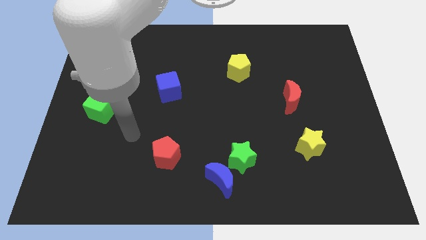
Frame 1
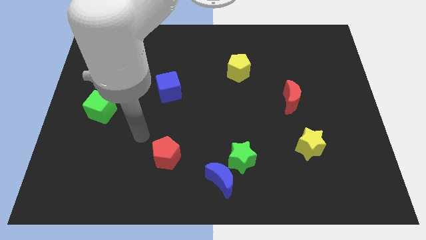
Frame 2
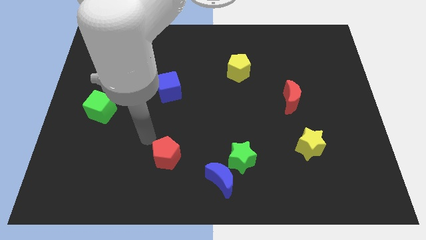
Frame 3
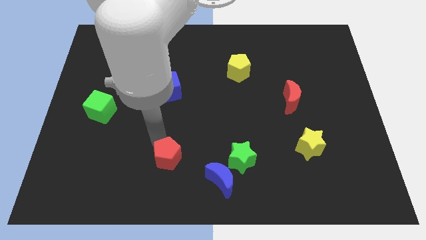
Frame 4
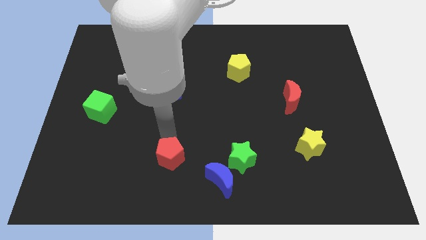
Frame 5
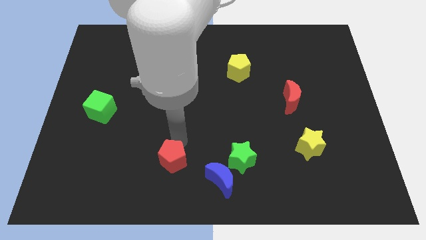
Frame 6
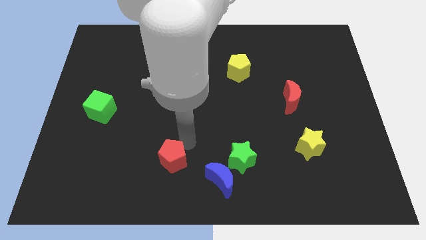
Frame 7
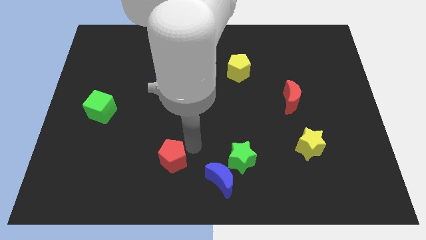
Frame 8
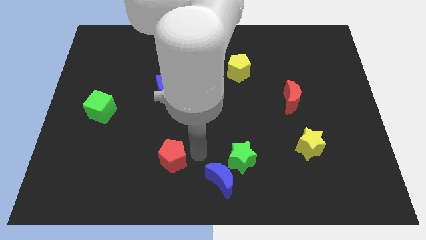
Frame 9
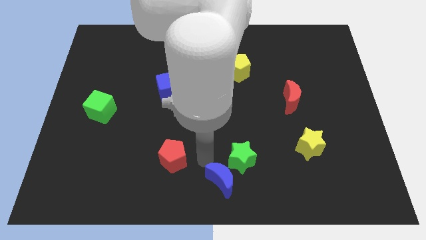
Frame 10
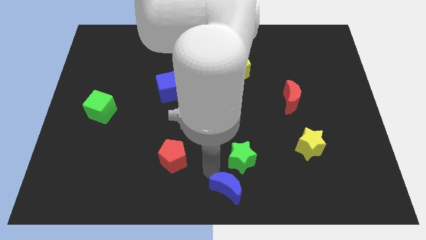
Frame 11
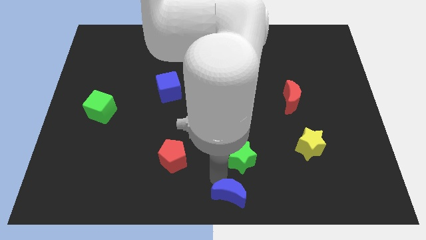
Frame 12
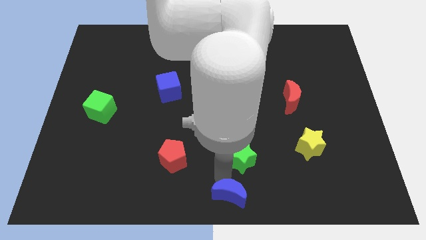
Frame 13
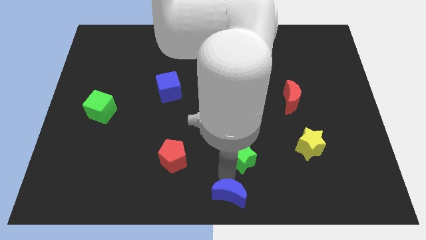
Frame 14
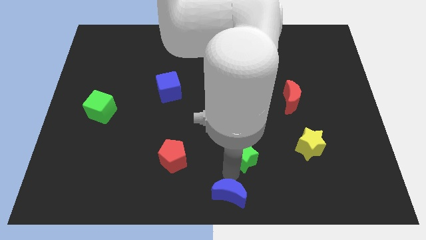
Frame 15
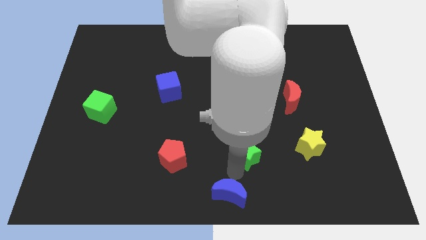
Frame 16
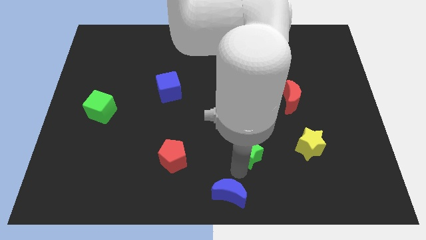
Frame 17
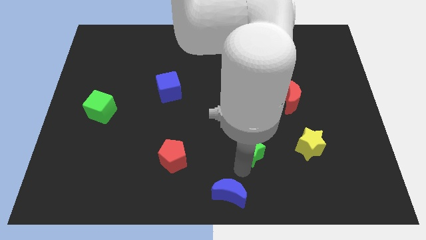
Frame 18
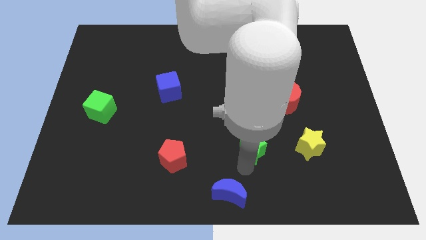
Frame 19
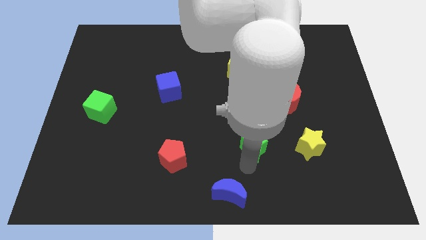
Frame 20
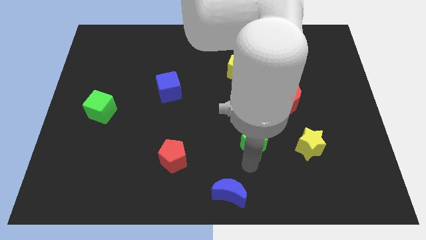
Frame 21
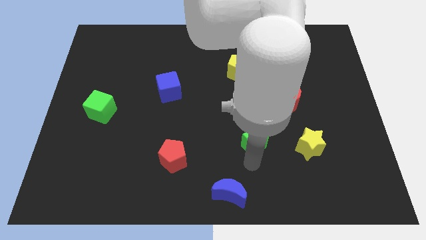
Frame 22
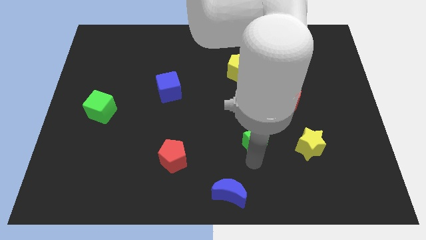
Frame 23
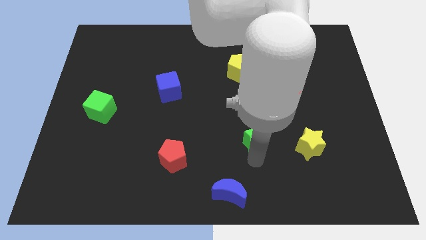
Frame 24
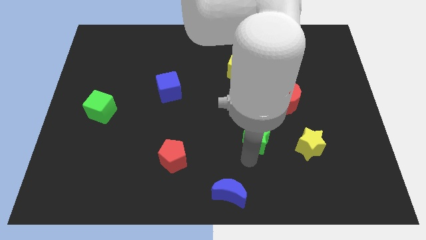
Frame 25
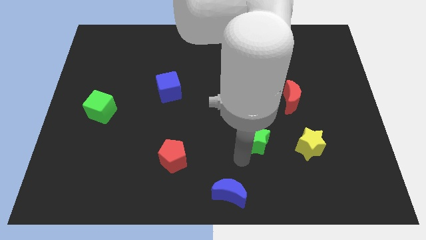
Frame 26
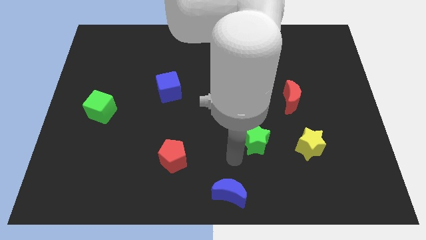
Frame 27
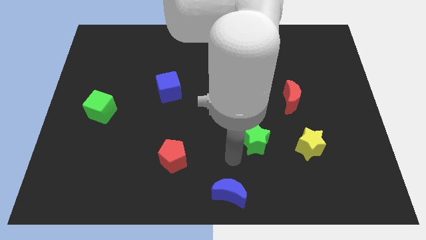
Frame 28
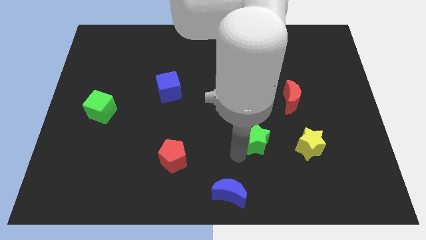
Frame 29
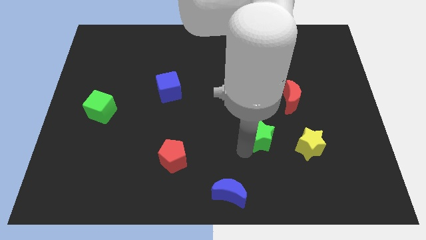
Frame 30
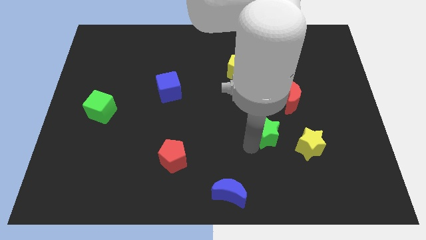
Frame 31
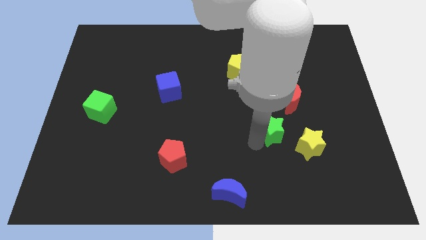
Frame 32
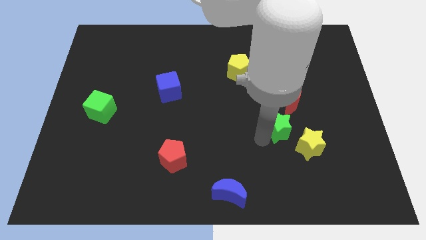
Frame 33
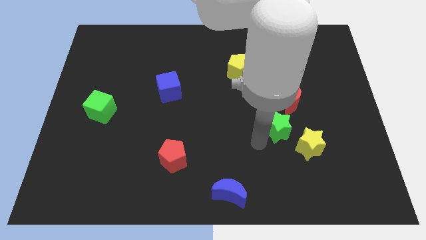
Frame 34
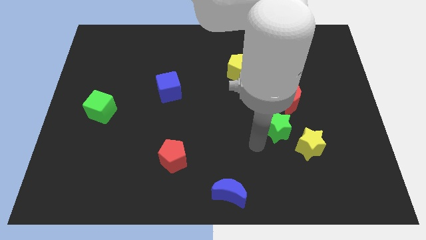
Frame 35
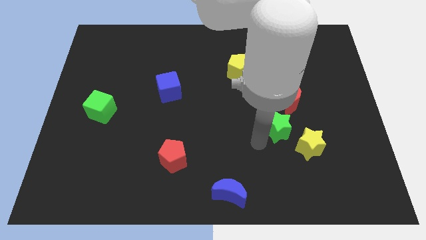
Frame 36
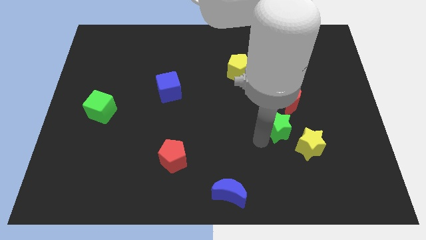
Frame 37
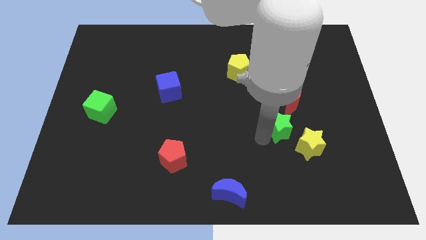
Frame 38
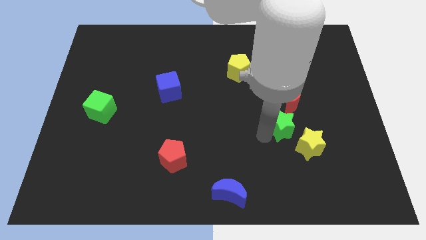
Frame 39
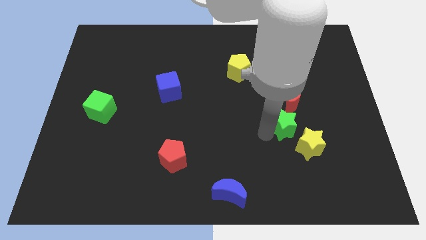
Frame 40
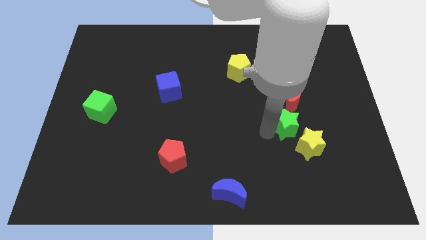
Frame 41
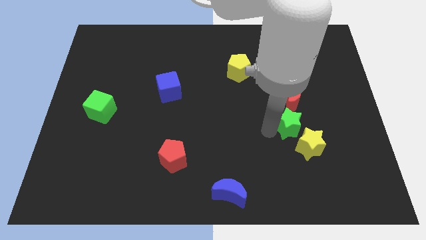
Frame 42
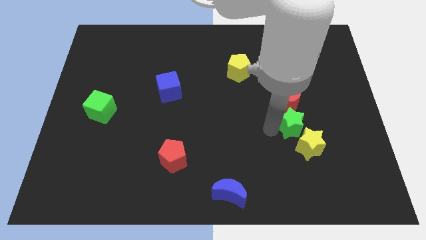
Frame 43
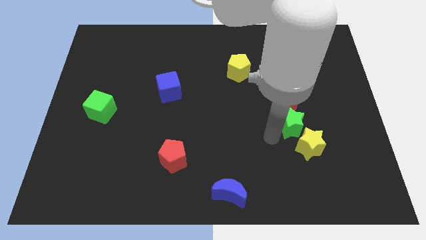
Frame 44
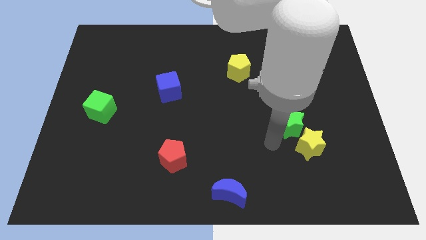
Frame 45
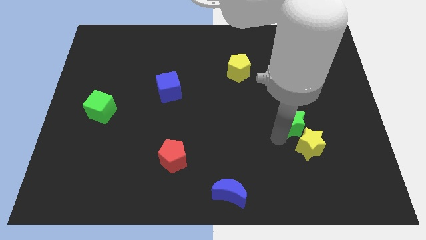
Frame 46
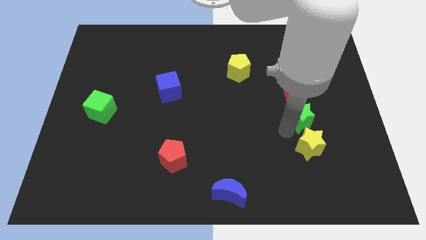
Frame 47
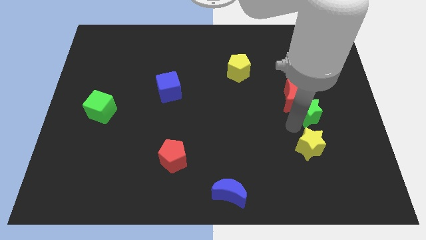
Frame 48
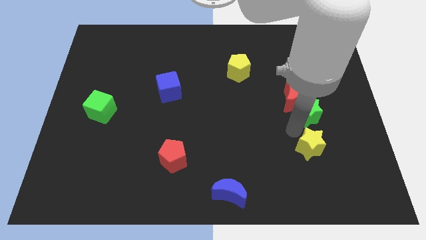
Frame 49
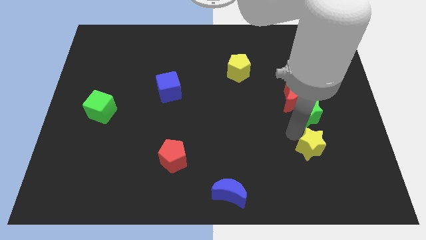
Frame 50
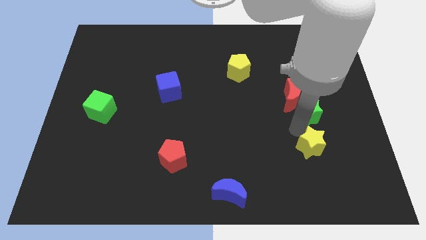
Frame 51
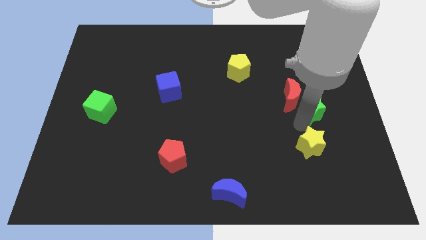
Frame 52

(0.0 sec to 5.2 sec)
push the green star up and to the right

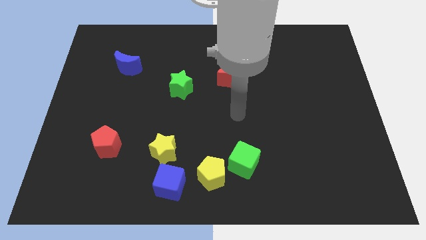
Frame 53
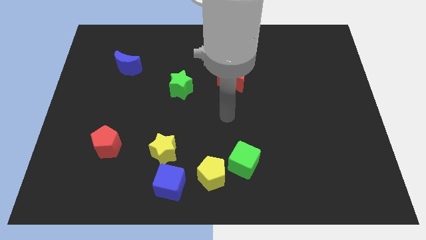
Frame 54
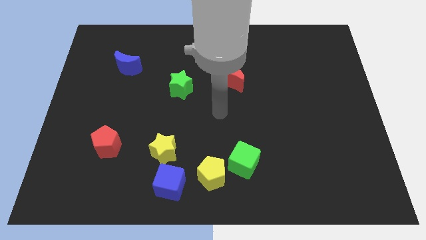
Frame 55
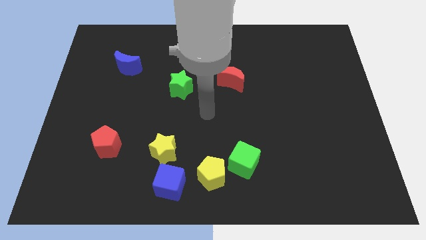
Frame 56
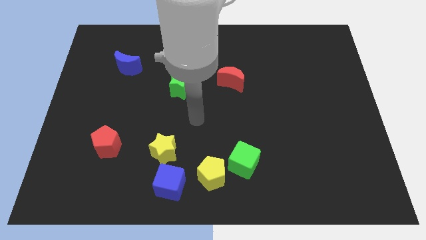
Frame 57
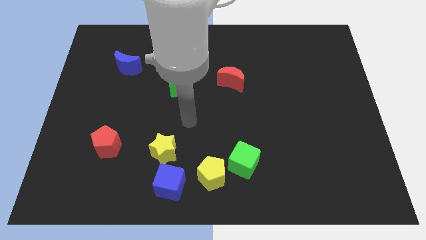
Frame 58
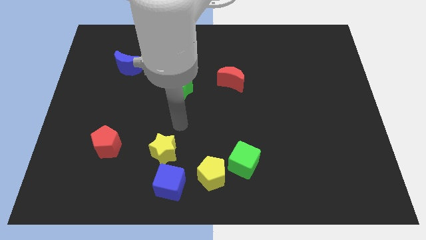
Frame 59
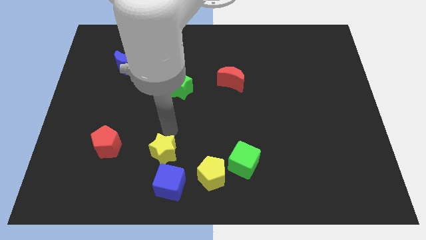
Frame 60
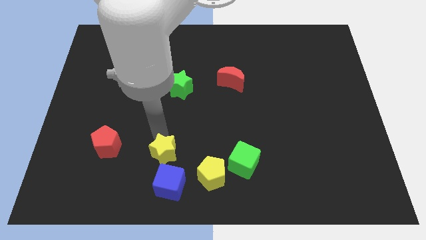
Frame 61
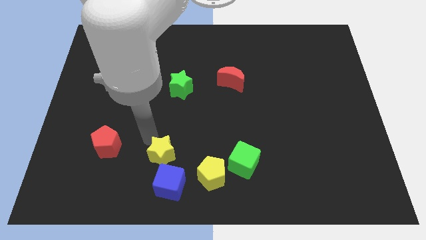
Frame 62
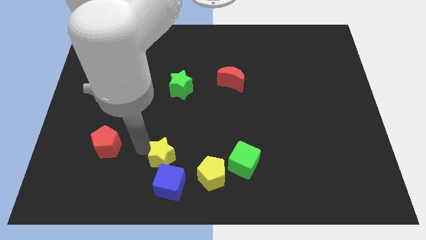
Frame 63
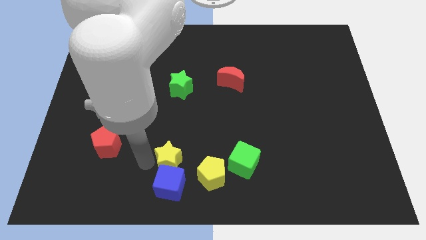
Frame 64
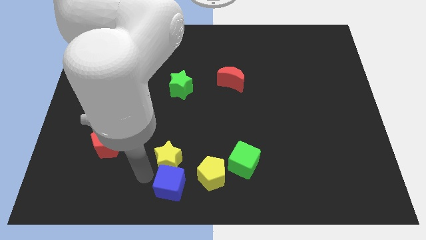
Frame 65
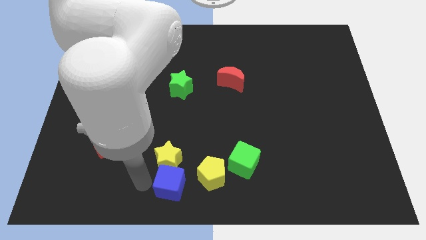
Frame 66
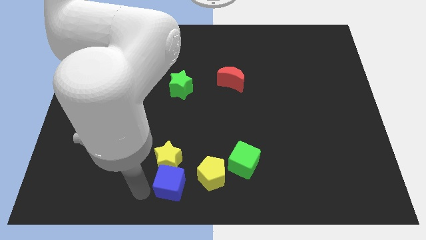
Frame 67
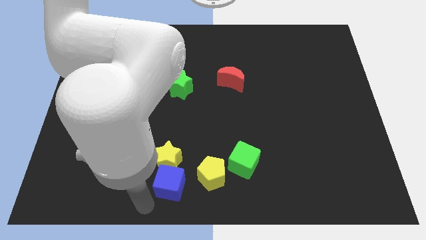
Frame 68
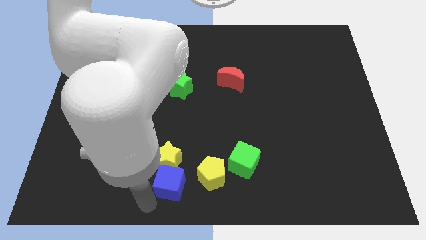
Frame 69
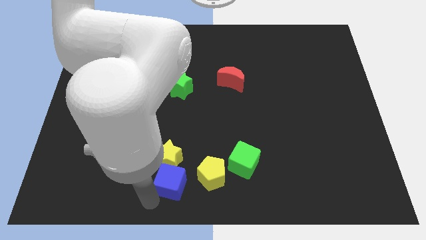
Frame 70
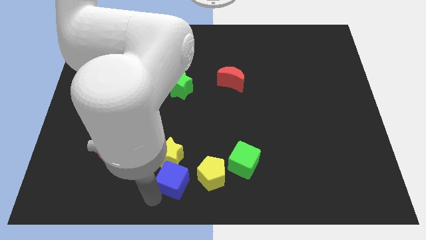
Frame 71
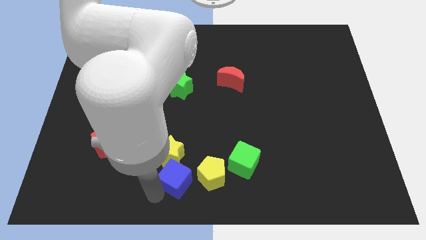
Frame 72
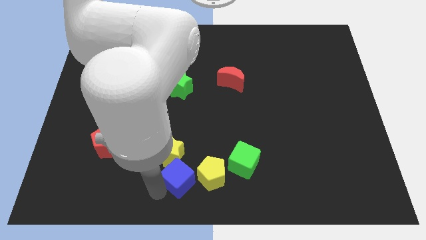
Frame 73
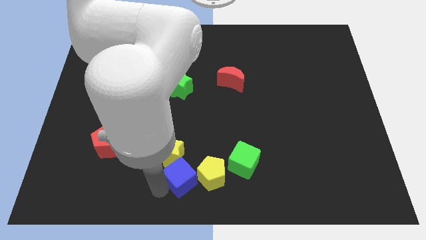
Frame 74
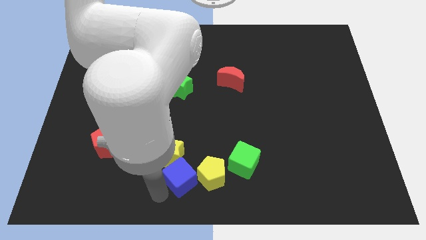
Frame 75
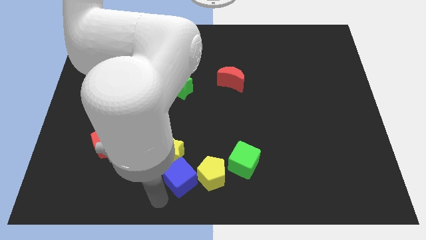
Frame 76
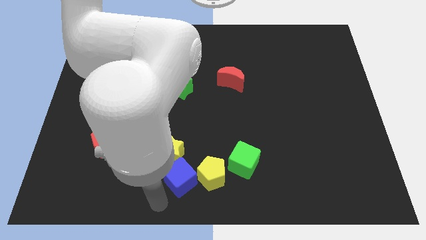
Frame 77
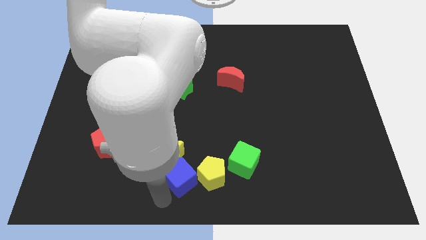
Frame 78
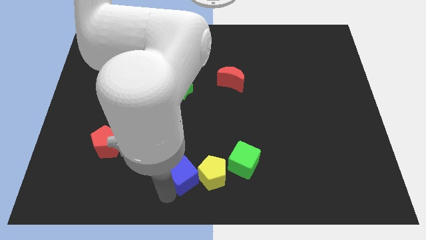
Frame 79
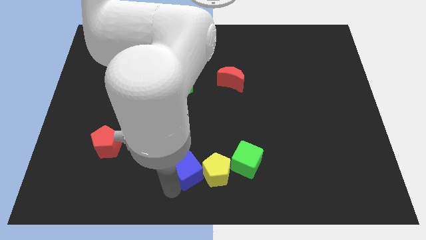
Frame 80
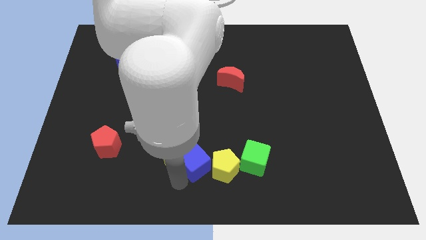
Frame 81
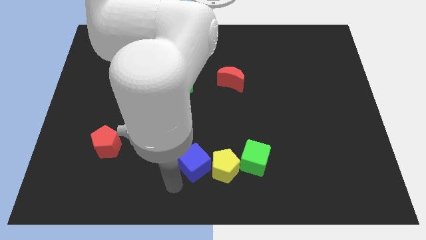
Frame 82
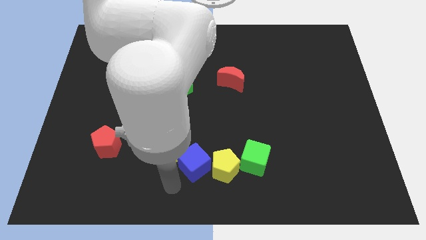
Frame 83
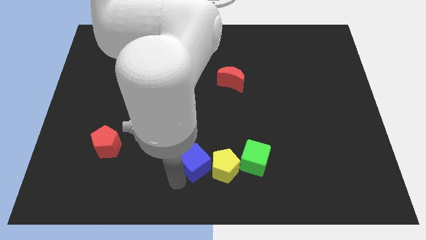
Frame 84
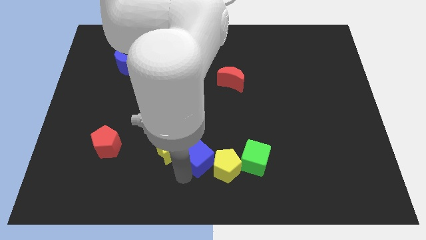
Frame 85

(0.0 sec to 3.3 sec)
slightly push the blue cube up and right diagonally
